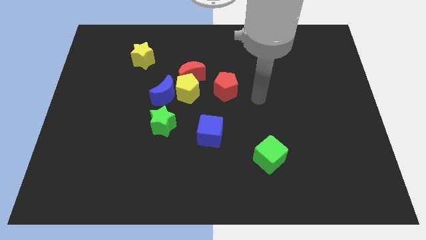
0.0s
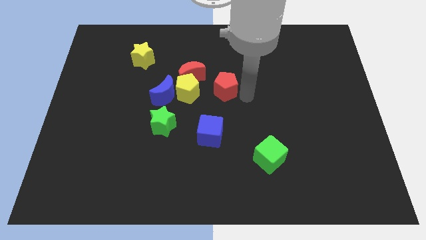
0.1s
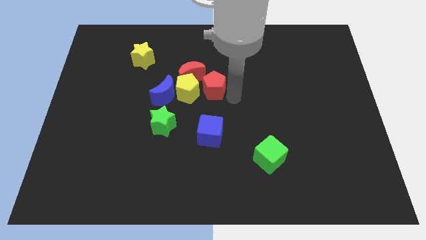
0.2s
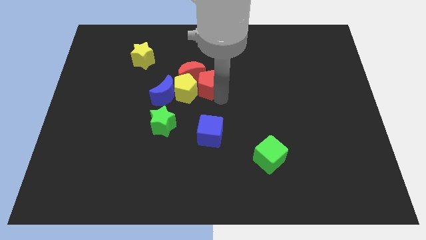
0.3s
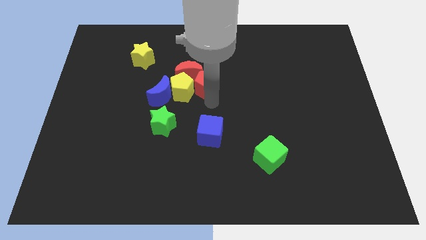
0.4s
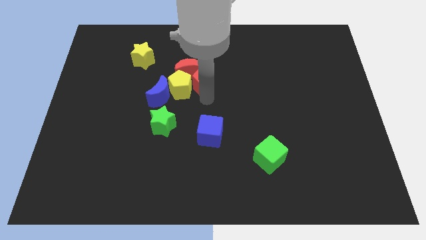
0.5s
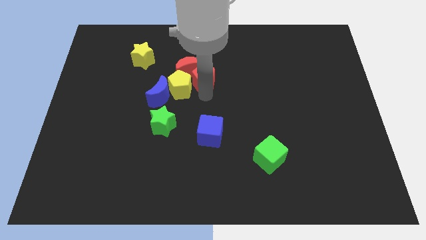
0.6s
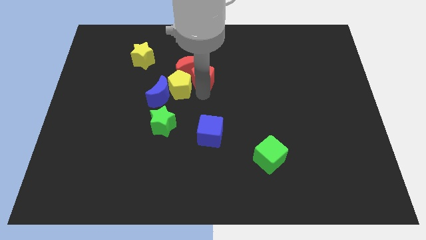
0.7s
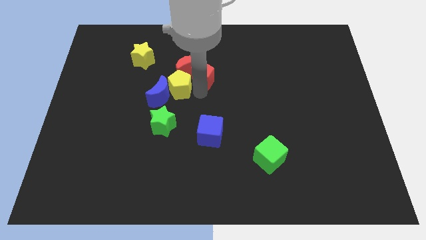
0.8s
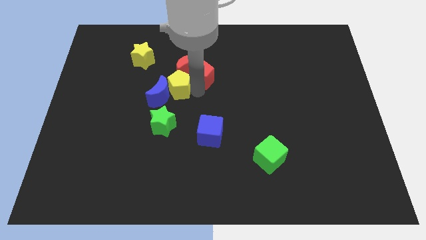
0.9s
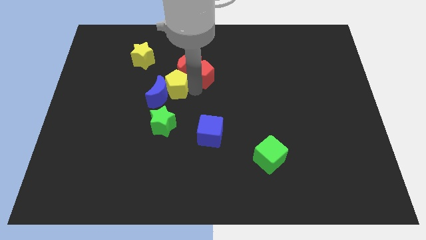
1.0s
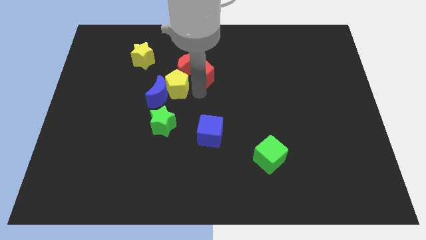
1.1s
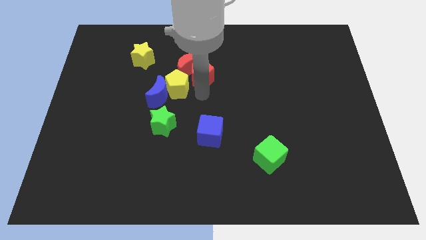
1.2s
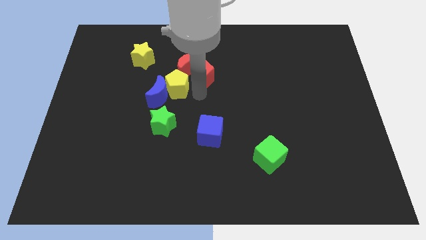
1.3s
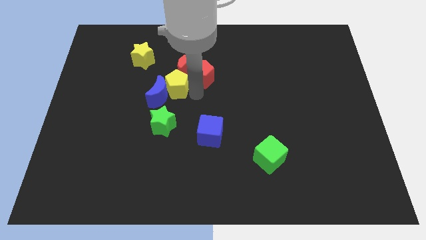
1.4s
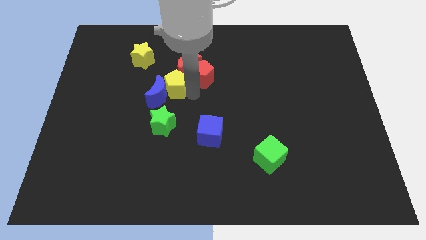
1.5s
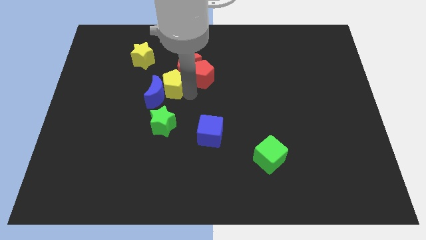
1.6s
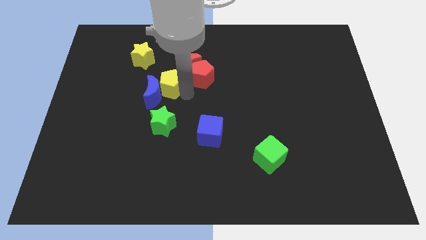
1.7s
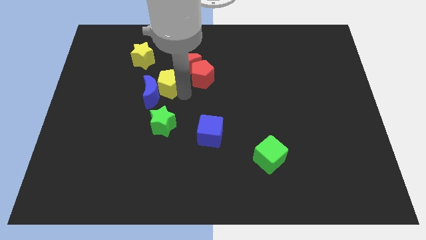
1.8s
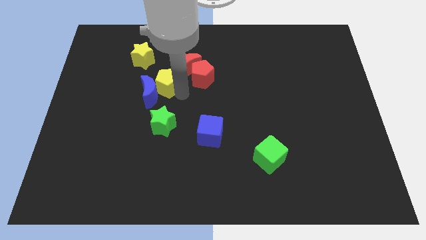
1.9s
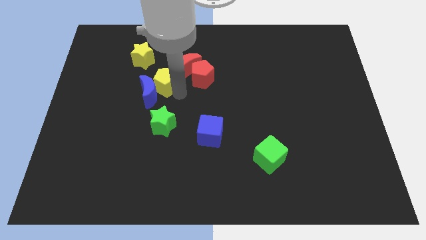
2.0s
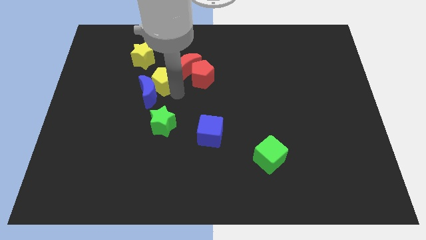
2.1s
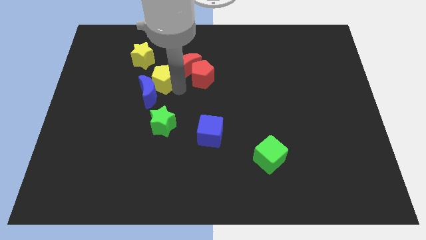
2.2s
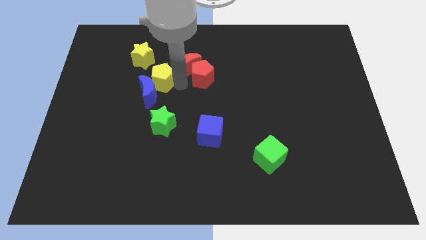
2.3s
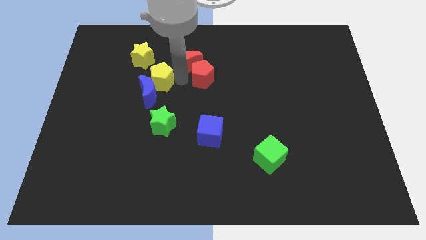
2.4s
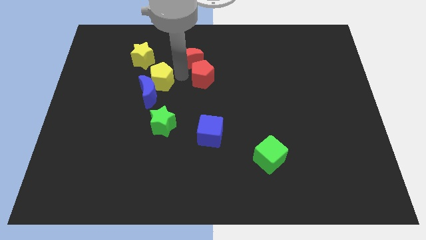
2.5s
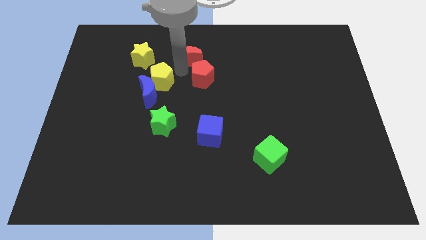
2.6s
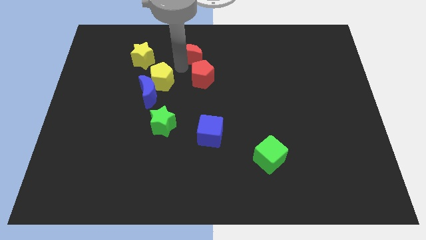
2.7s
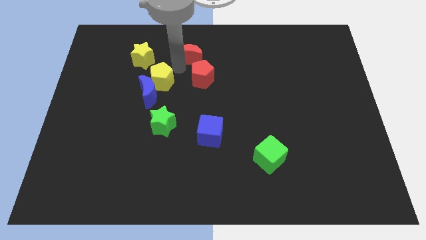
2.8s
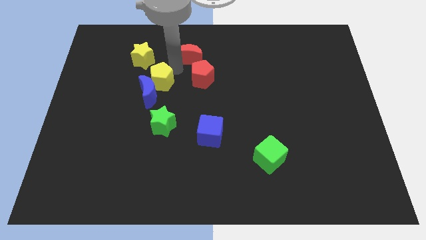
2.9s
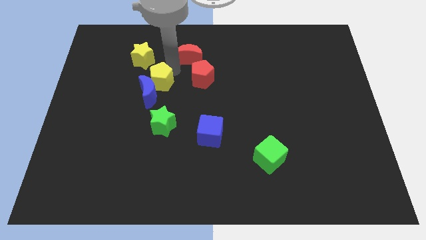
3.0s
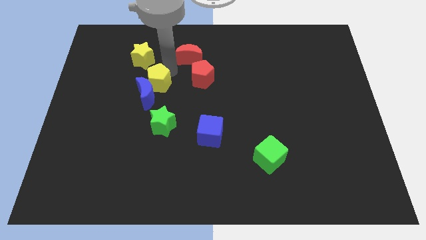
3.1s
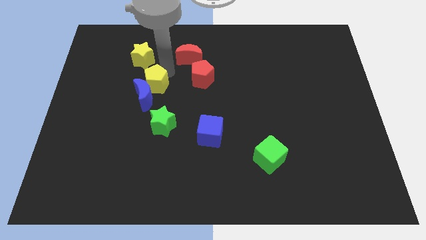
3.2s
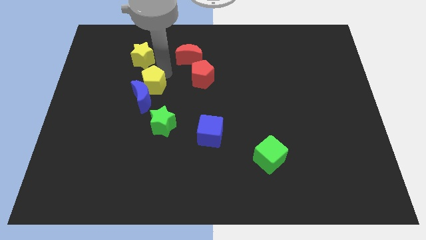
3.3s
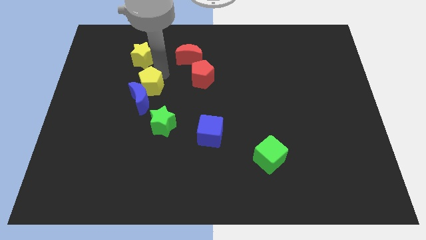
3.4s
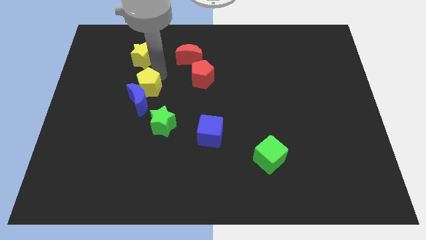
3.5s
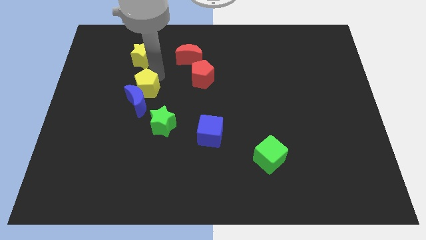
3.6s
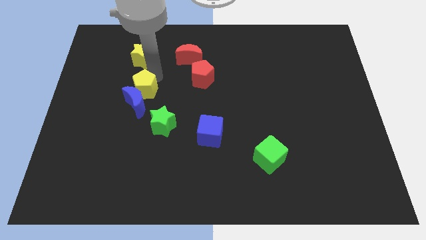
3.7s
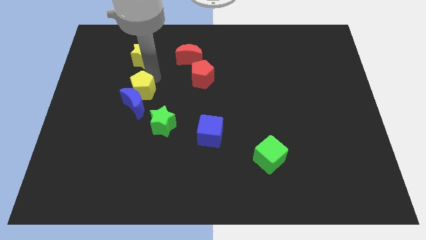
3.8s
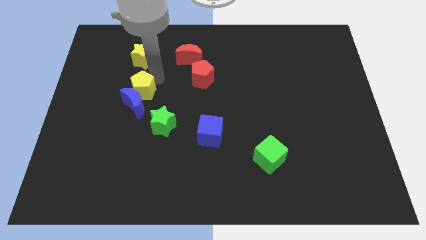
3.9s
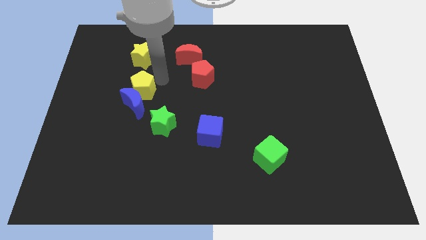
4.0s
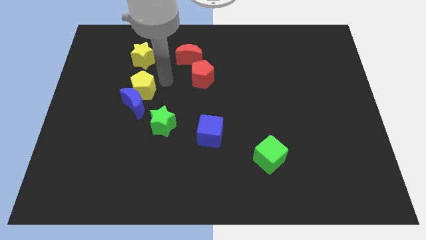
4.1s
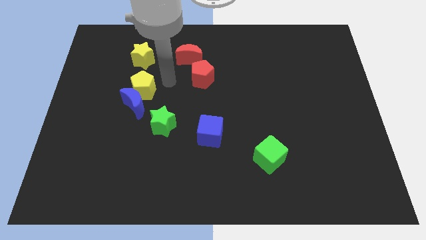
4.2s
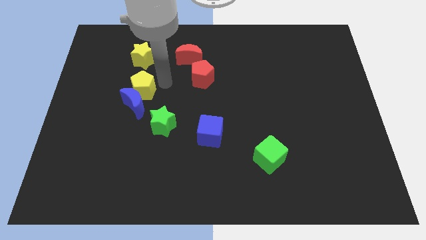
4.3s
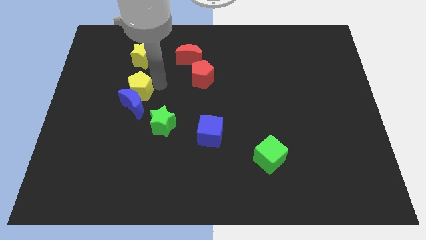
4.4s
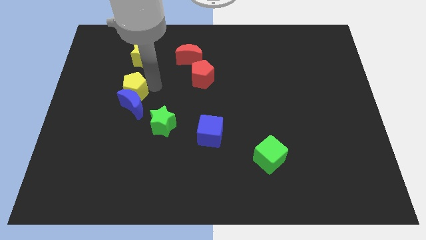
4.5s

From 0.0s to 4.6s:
pull the yellow pentagon apart from the red moon, blue moon, and red pentagon

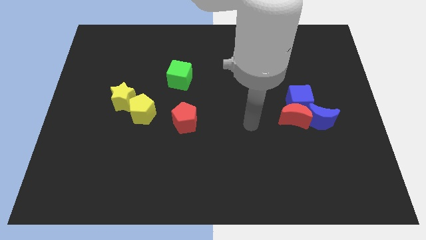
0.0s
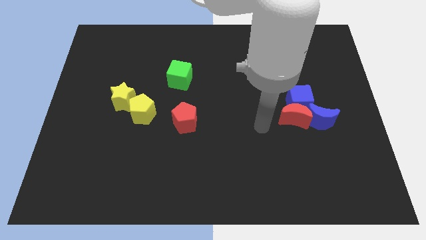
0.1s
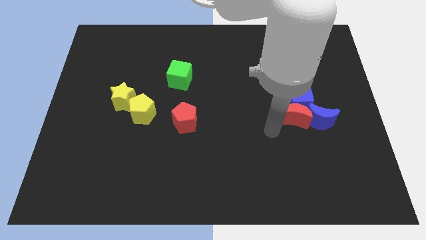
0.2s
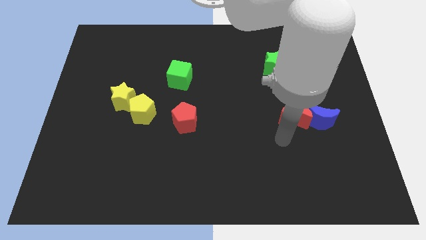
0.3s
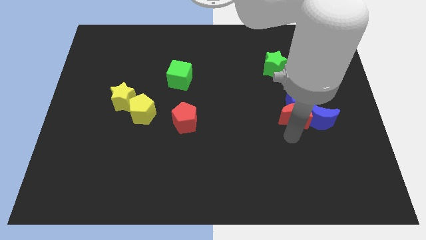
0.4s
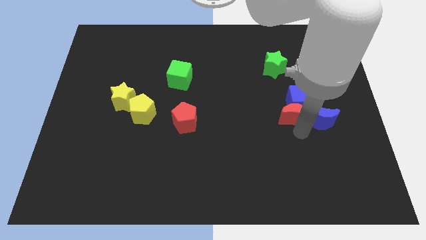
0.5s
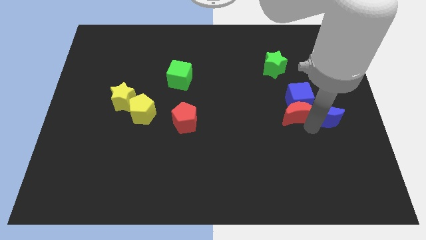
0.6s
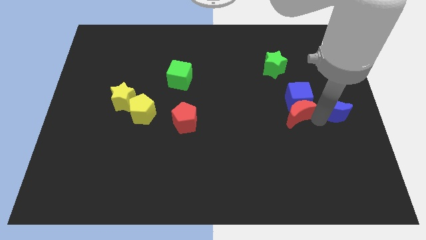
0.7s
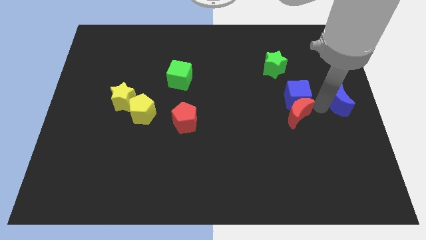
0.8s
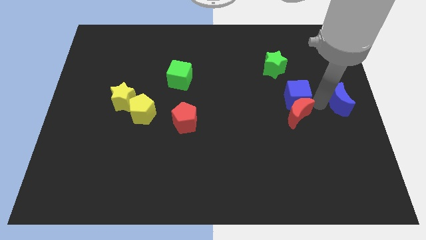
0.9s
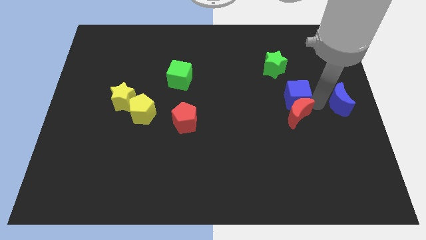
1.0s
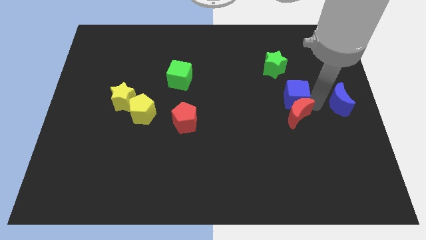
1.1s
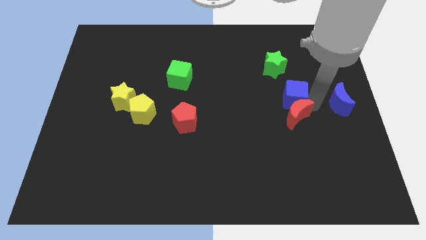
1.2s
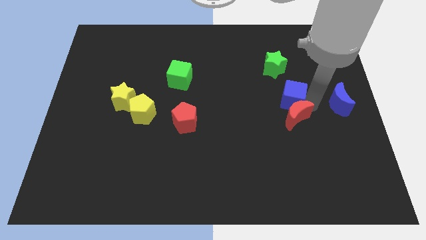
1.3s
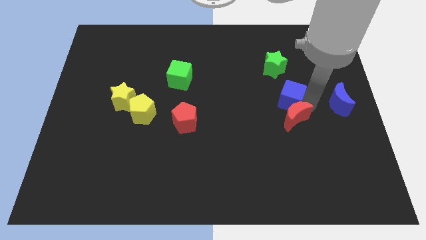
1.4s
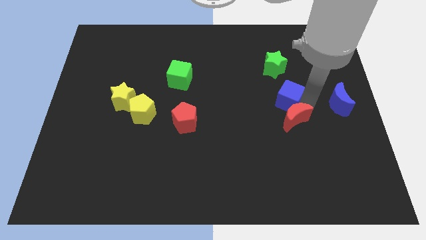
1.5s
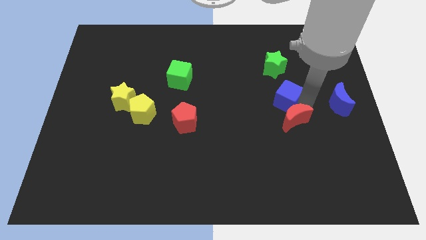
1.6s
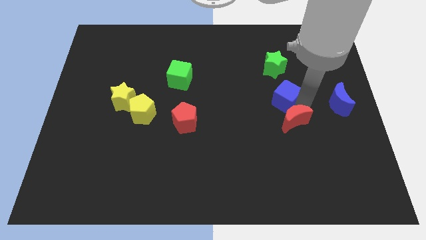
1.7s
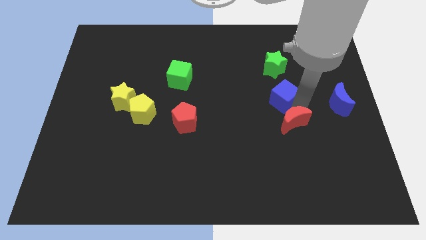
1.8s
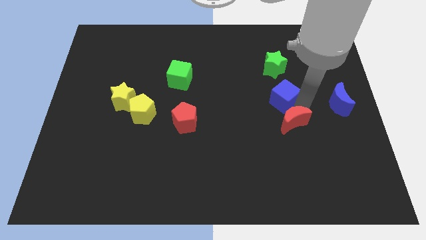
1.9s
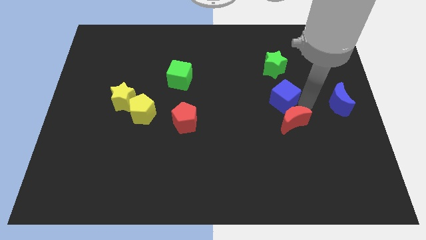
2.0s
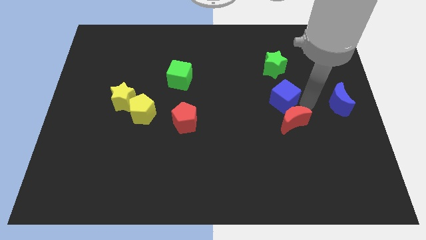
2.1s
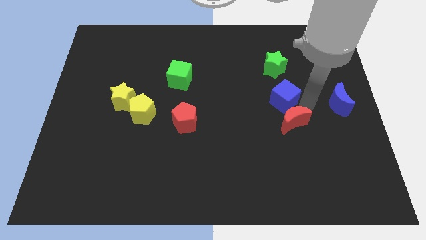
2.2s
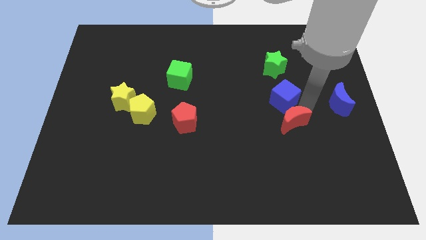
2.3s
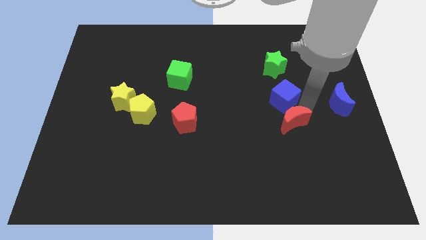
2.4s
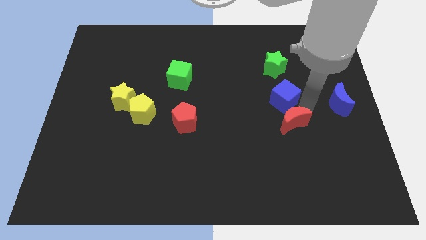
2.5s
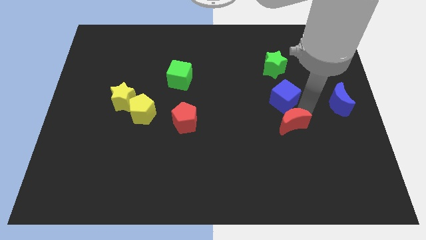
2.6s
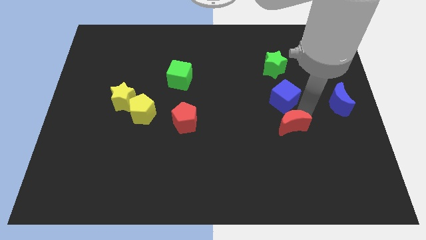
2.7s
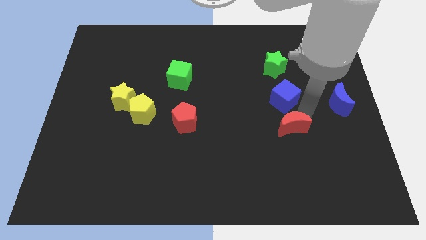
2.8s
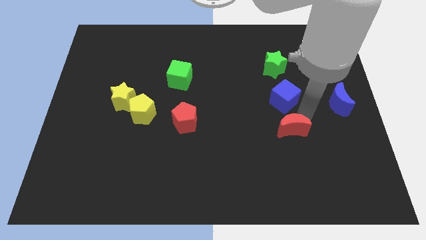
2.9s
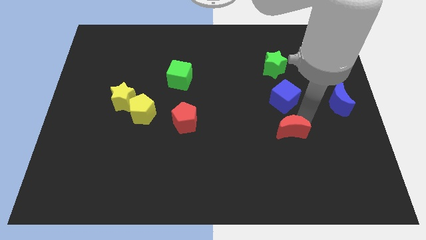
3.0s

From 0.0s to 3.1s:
pull the red moon apart from the blue cube and blue moon

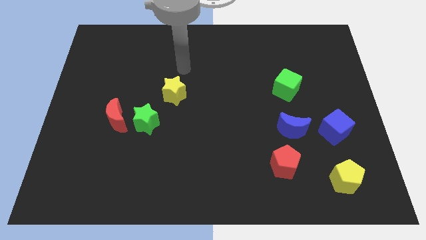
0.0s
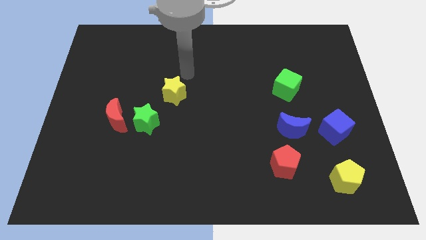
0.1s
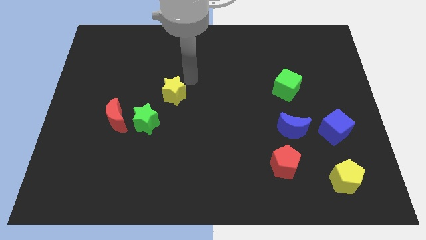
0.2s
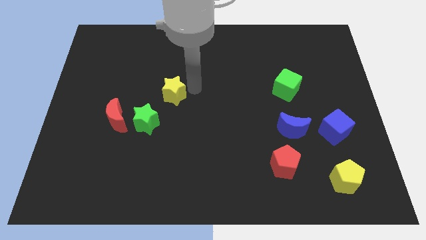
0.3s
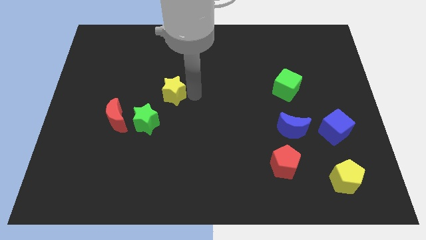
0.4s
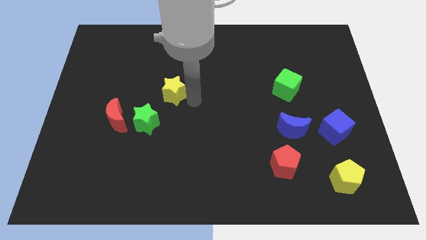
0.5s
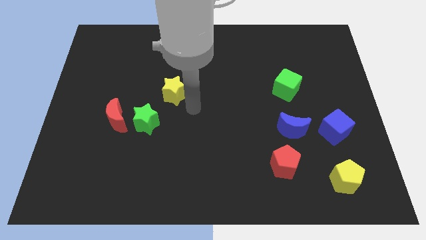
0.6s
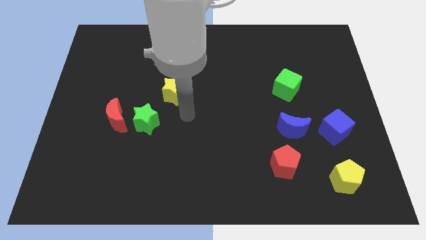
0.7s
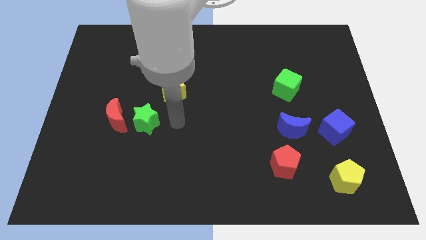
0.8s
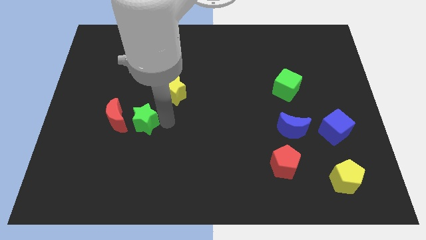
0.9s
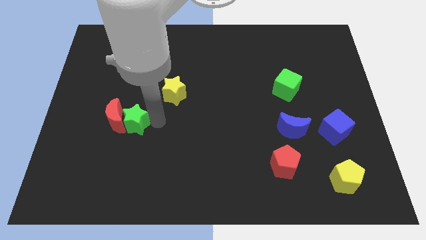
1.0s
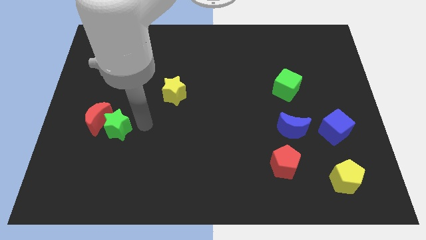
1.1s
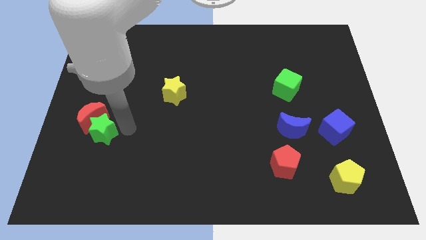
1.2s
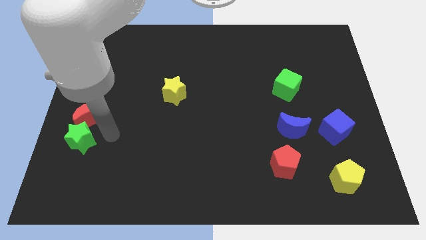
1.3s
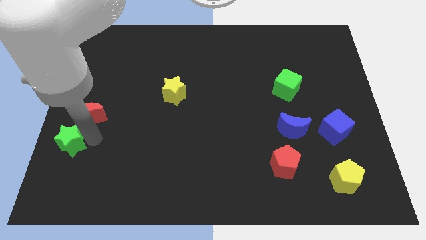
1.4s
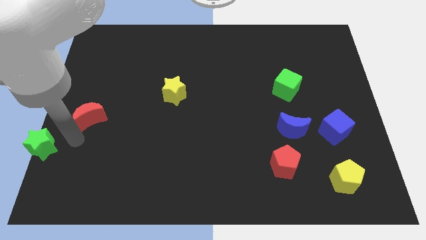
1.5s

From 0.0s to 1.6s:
separate the red moon from the green star
